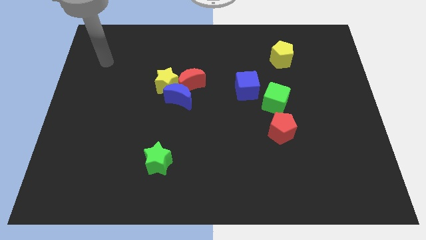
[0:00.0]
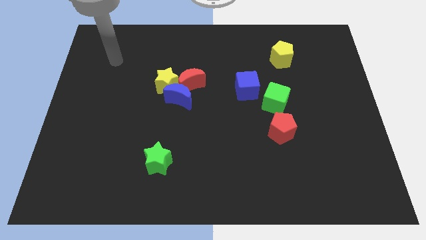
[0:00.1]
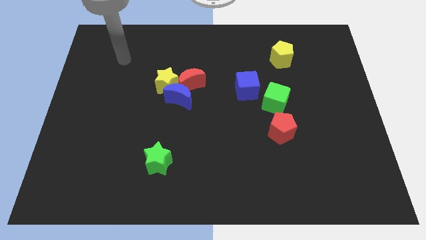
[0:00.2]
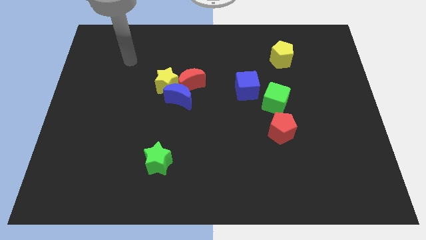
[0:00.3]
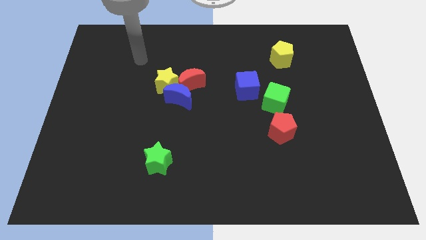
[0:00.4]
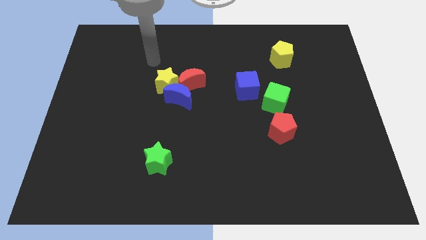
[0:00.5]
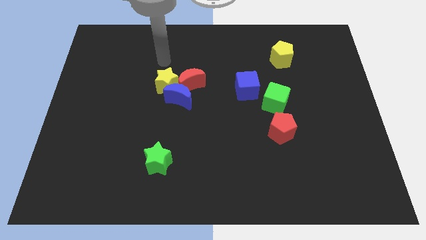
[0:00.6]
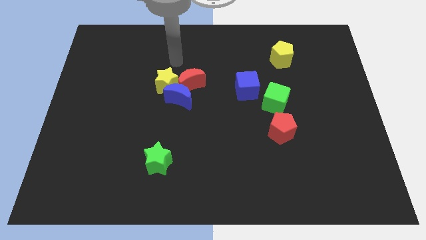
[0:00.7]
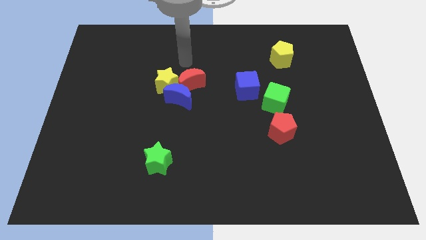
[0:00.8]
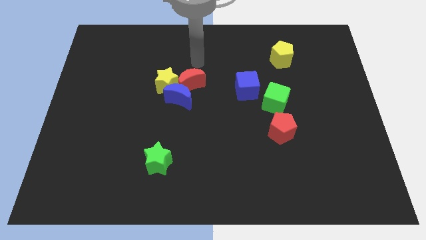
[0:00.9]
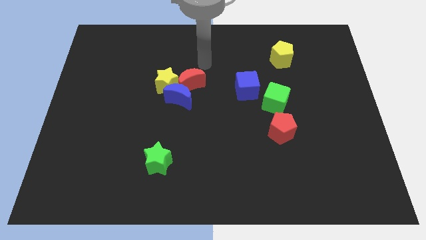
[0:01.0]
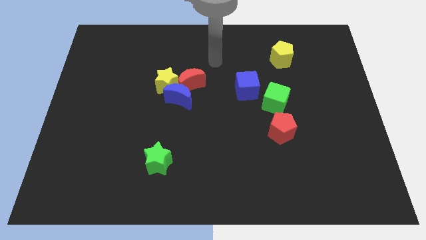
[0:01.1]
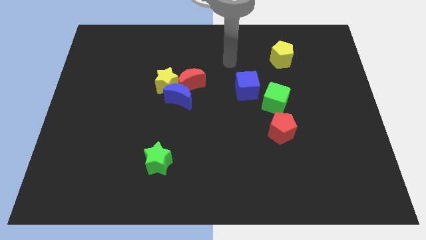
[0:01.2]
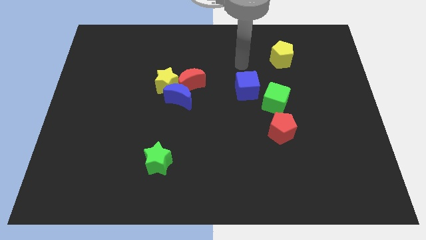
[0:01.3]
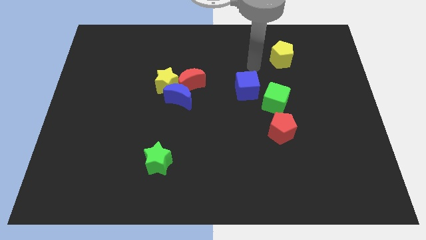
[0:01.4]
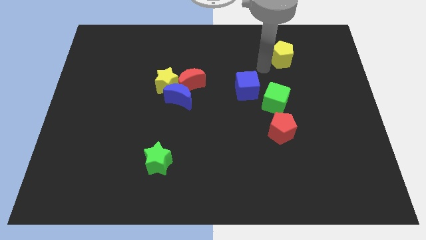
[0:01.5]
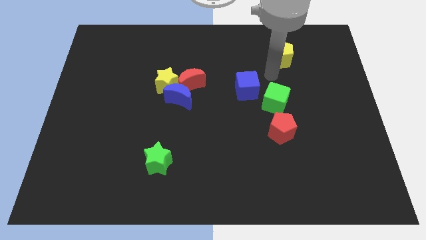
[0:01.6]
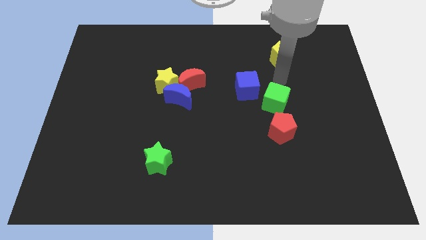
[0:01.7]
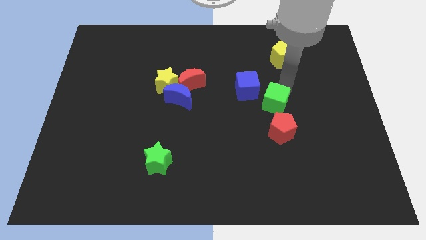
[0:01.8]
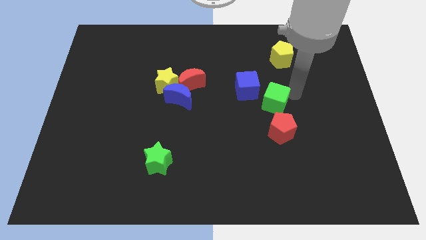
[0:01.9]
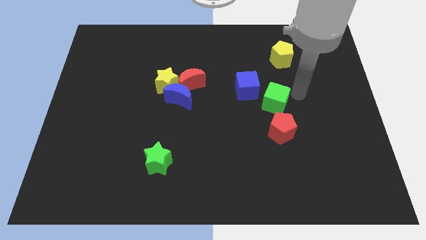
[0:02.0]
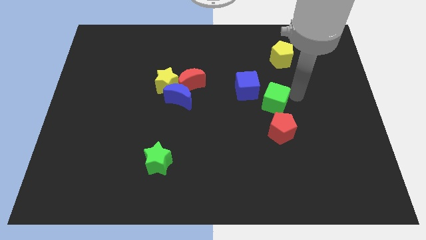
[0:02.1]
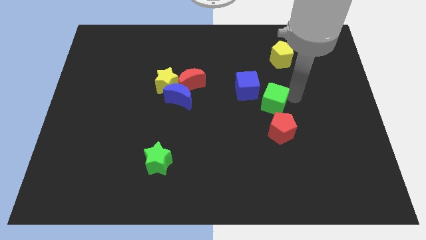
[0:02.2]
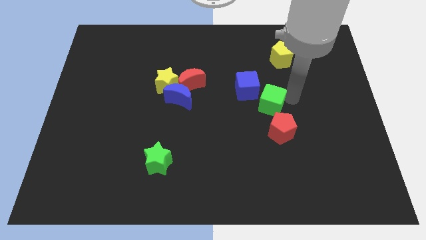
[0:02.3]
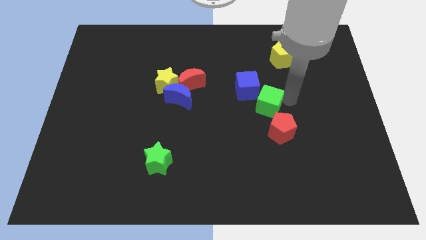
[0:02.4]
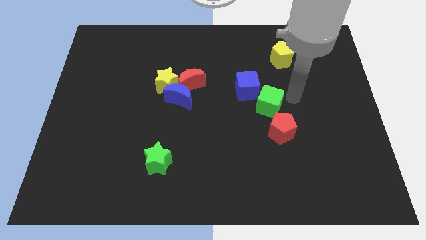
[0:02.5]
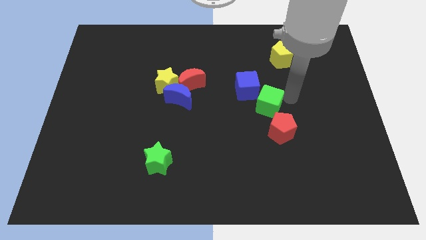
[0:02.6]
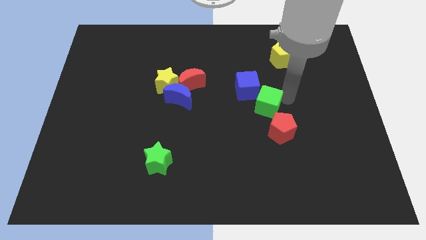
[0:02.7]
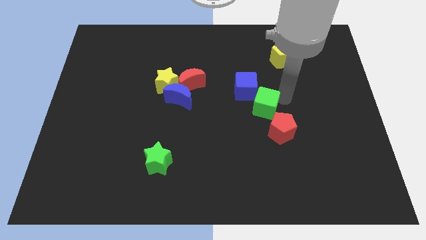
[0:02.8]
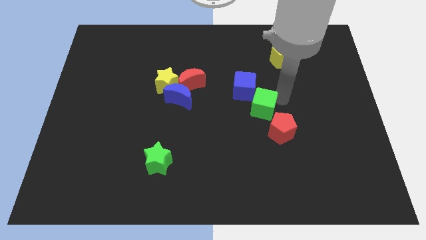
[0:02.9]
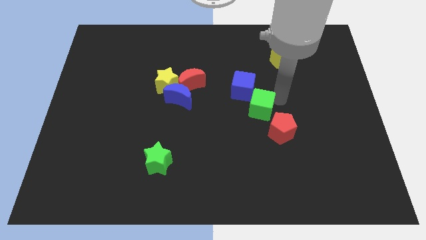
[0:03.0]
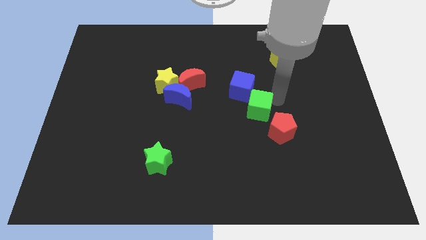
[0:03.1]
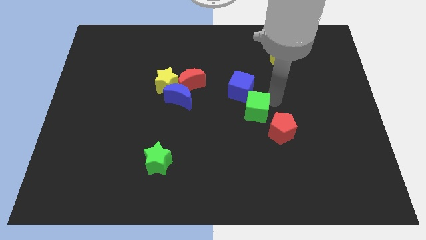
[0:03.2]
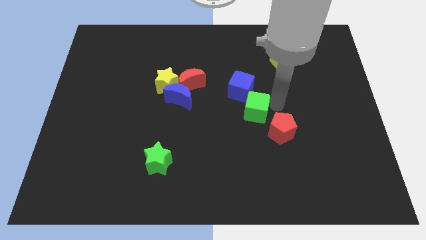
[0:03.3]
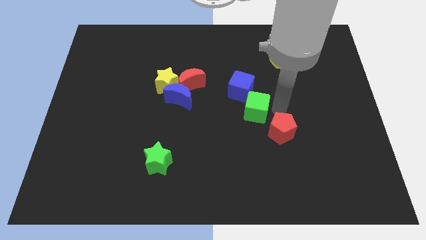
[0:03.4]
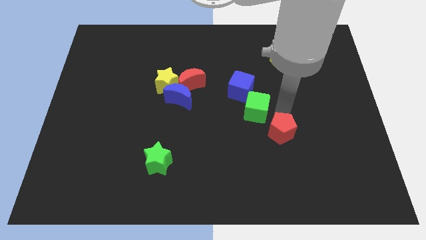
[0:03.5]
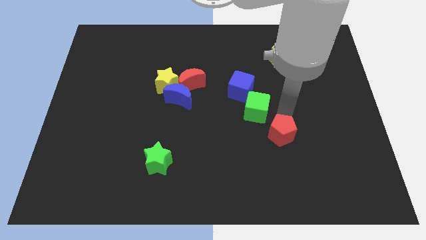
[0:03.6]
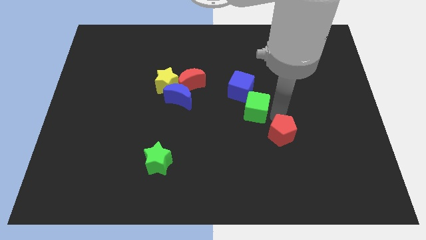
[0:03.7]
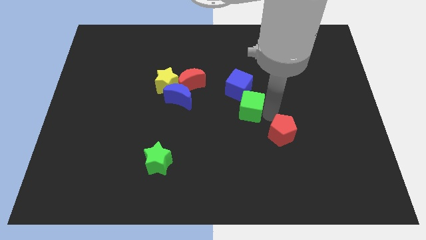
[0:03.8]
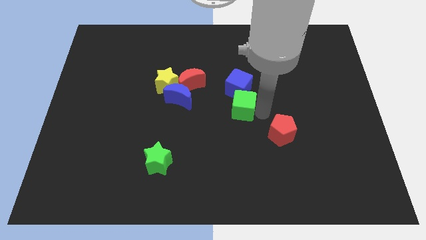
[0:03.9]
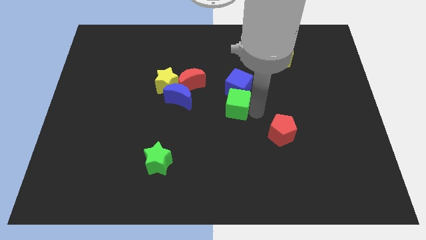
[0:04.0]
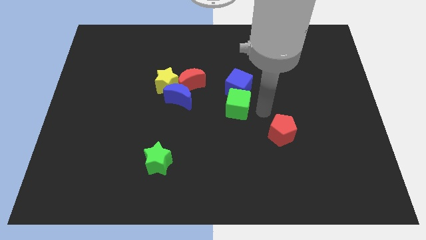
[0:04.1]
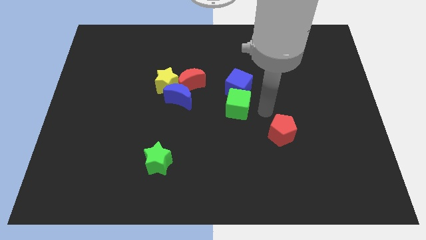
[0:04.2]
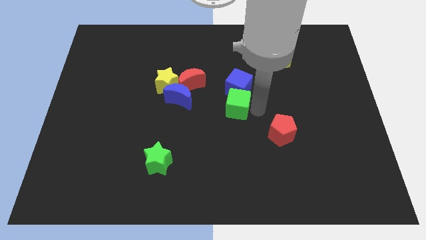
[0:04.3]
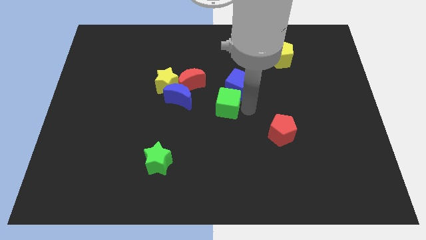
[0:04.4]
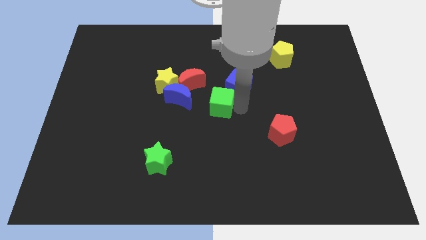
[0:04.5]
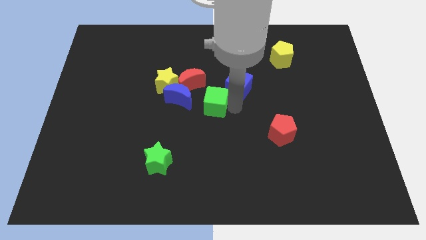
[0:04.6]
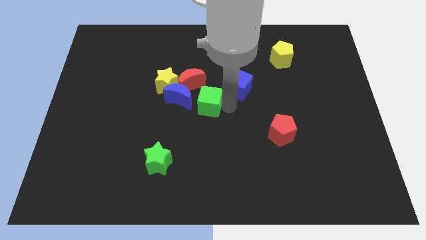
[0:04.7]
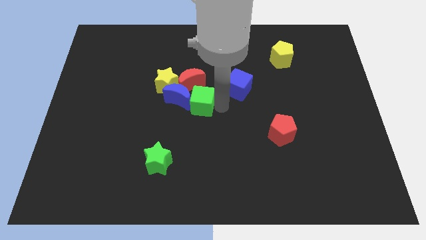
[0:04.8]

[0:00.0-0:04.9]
put the green cube next to the blue moon

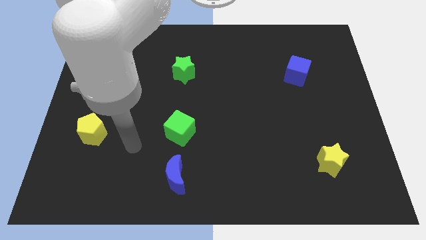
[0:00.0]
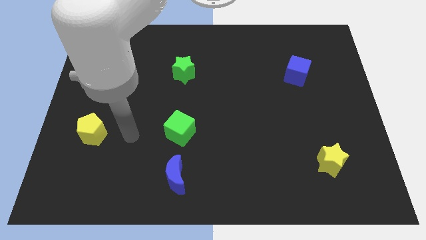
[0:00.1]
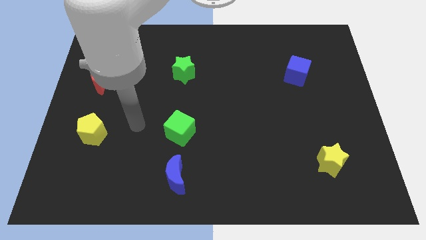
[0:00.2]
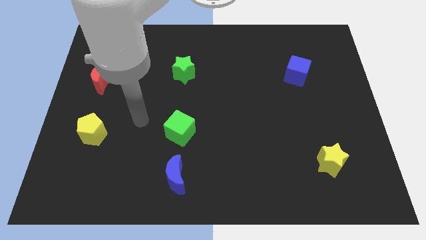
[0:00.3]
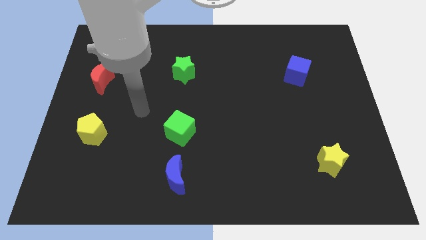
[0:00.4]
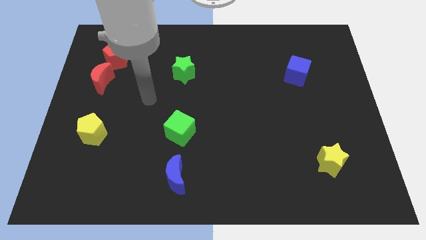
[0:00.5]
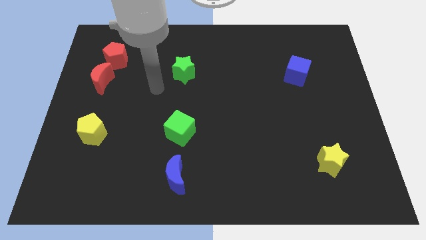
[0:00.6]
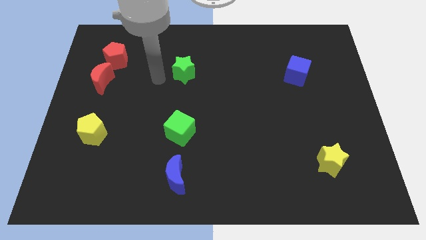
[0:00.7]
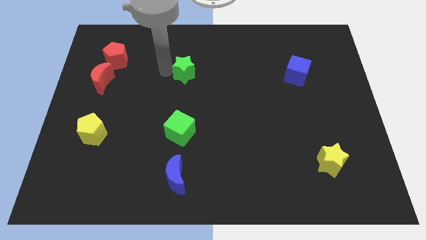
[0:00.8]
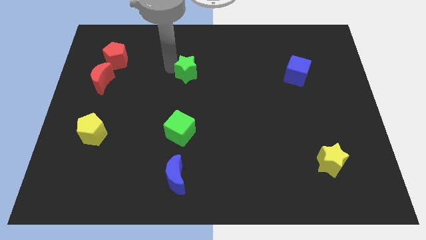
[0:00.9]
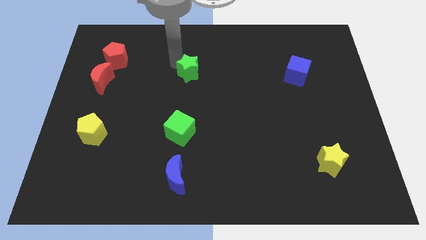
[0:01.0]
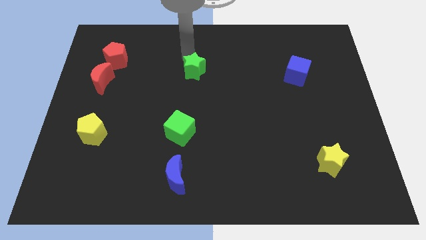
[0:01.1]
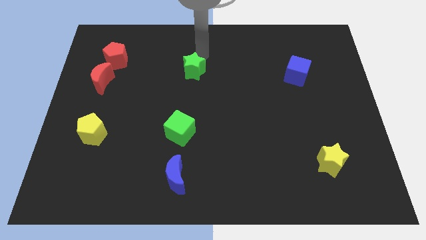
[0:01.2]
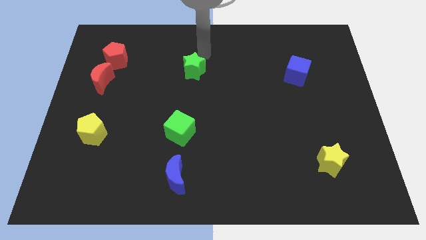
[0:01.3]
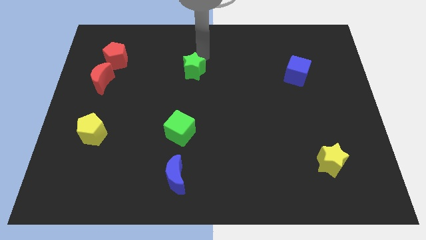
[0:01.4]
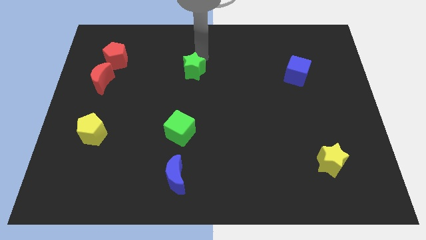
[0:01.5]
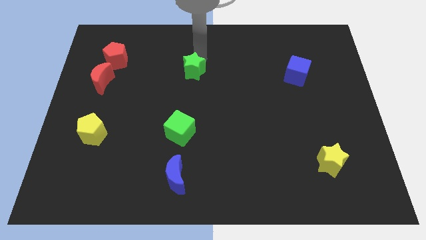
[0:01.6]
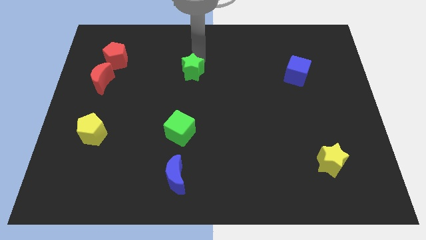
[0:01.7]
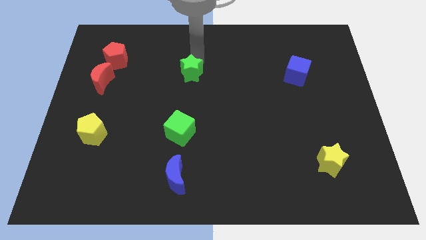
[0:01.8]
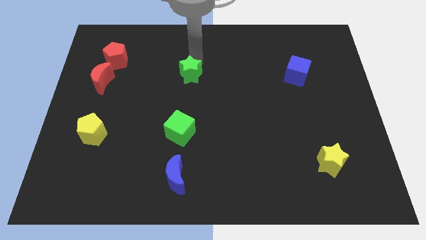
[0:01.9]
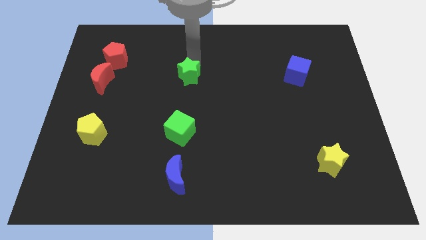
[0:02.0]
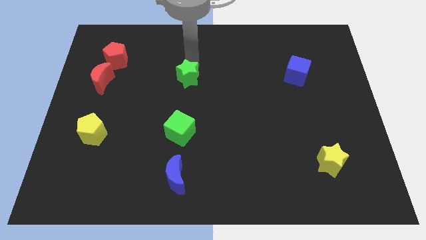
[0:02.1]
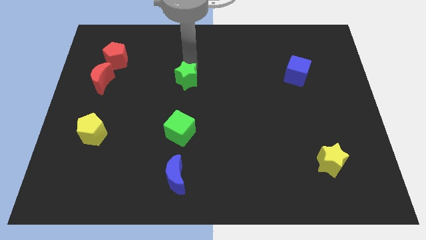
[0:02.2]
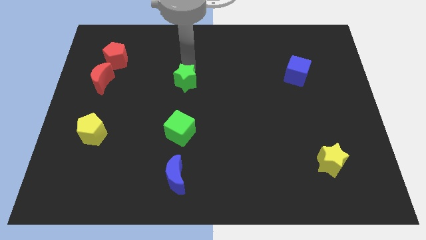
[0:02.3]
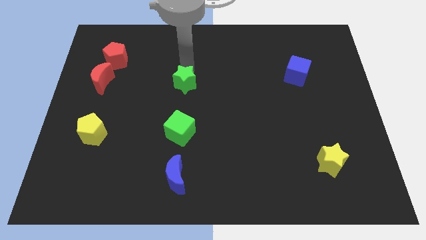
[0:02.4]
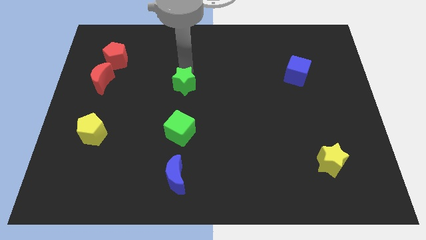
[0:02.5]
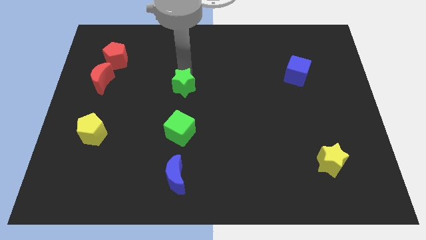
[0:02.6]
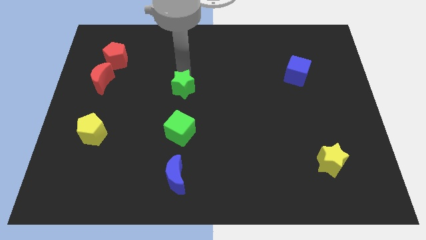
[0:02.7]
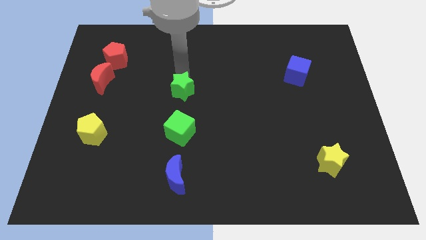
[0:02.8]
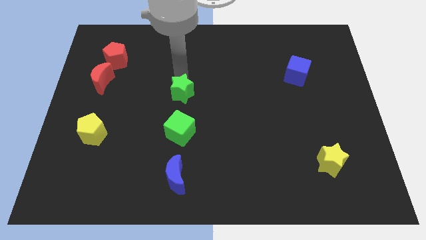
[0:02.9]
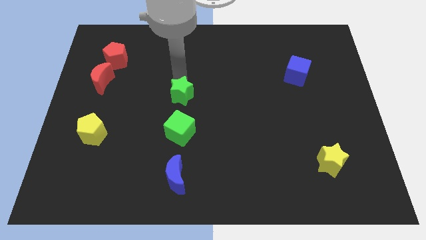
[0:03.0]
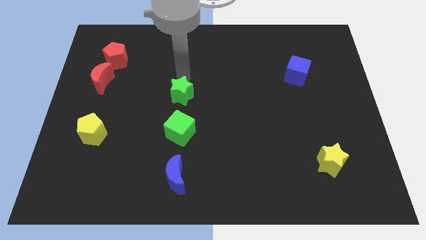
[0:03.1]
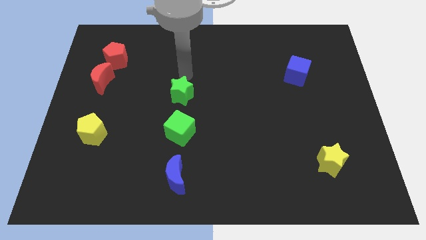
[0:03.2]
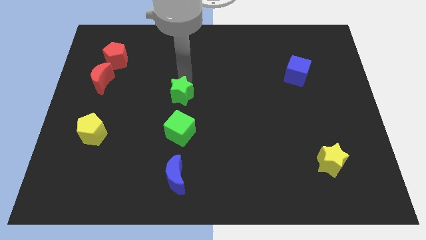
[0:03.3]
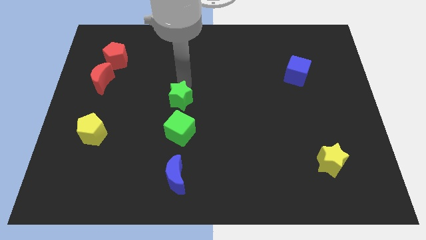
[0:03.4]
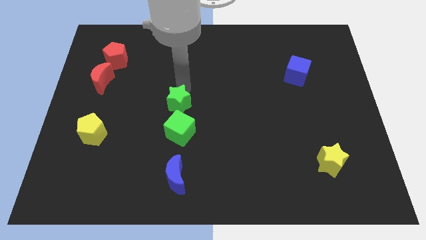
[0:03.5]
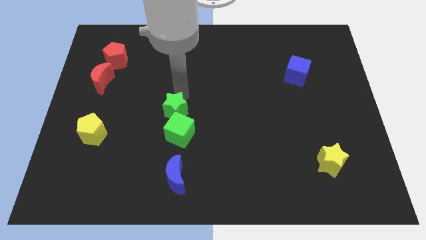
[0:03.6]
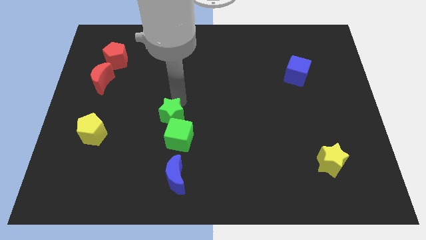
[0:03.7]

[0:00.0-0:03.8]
slide the green star close to the green cube
